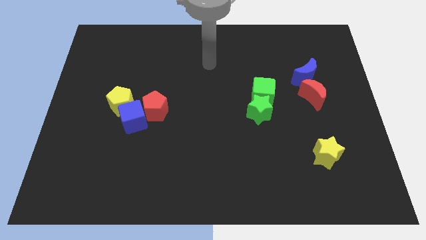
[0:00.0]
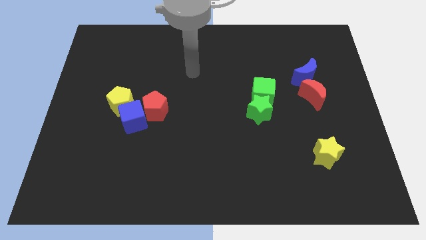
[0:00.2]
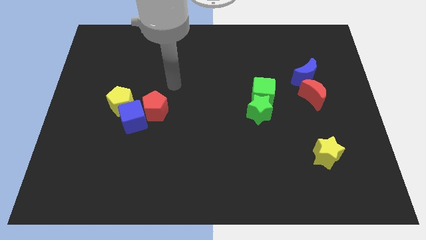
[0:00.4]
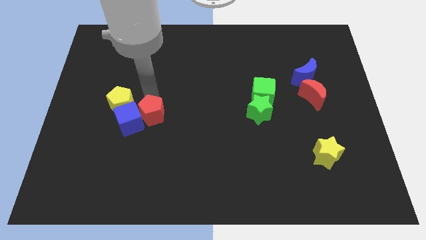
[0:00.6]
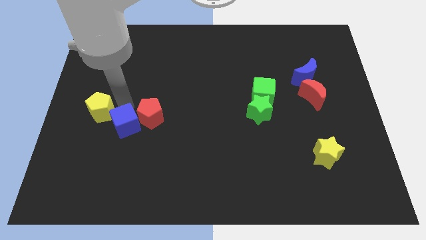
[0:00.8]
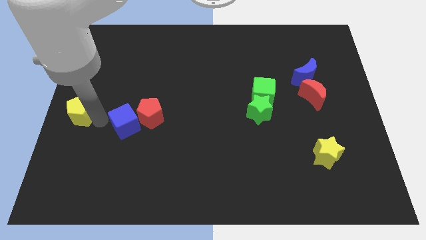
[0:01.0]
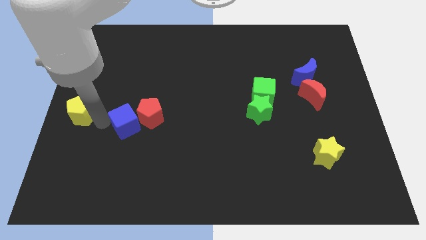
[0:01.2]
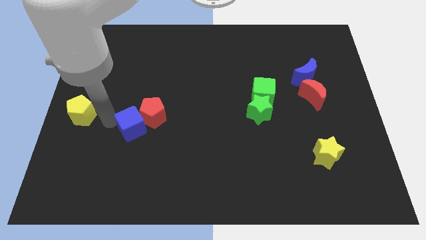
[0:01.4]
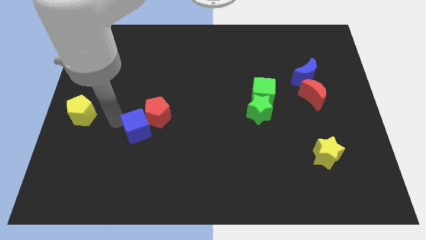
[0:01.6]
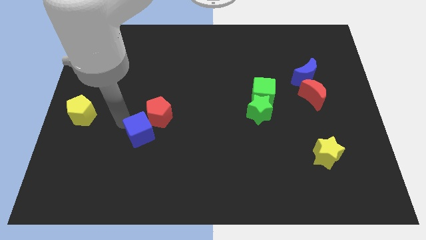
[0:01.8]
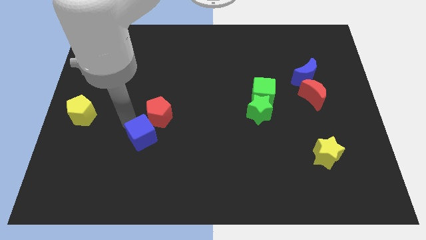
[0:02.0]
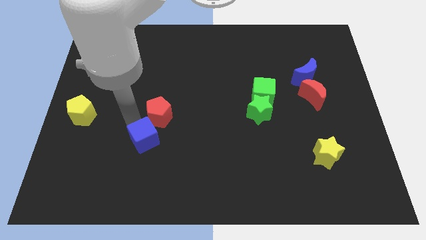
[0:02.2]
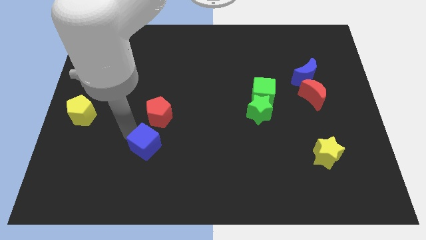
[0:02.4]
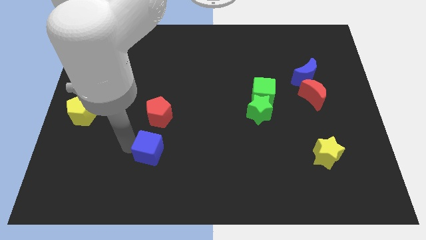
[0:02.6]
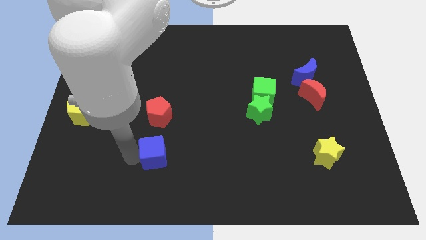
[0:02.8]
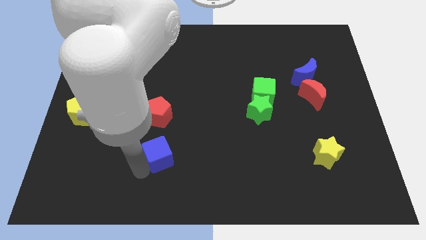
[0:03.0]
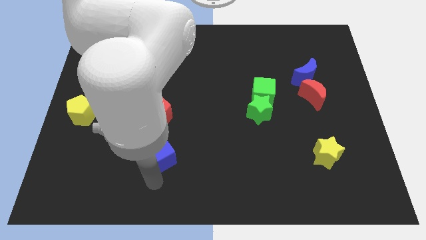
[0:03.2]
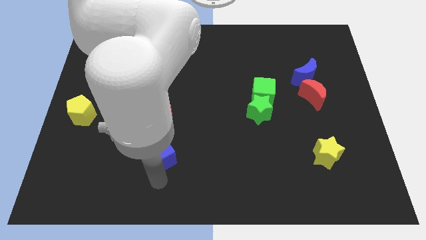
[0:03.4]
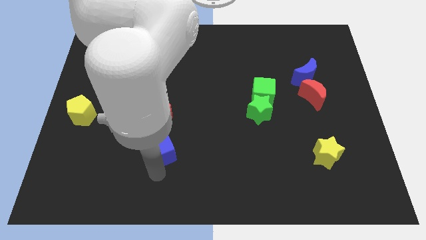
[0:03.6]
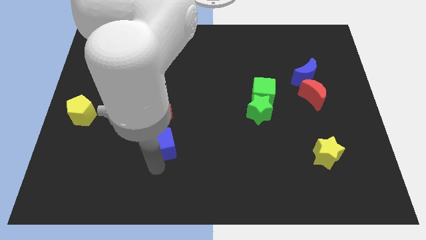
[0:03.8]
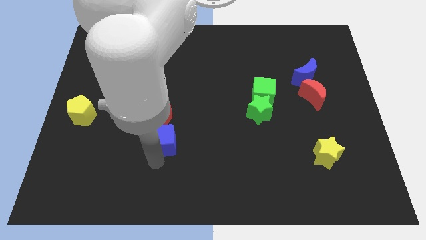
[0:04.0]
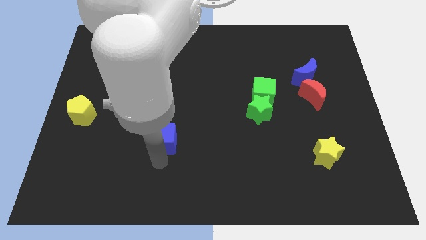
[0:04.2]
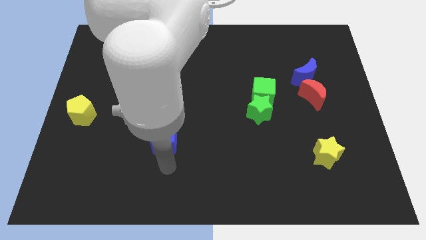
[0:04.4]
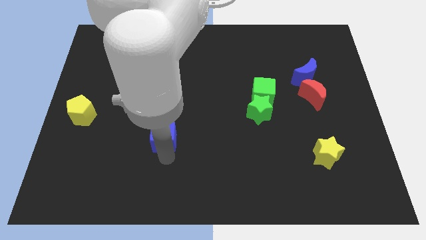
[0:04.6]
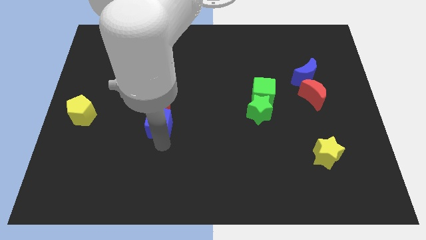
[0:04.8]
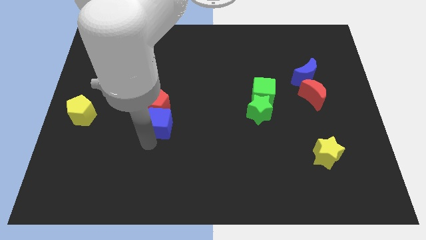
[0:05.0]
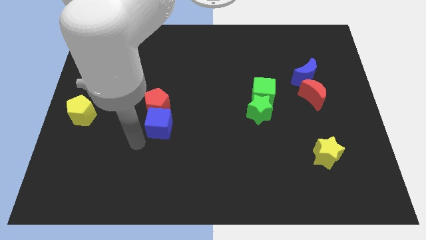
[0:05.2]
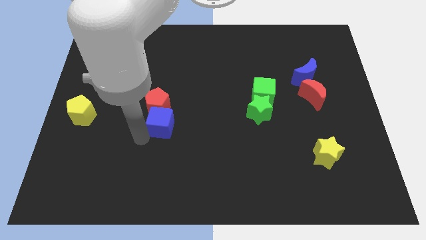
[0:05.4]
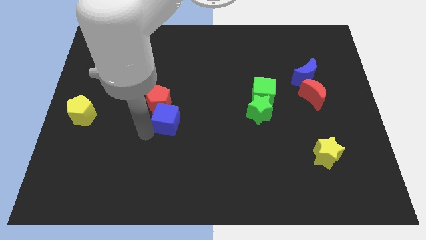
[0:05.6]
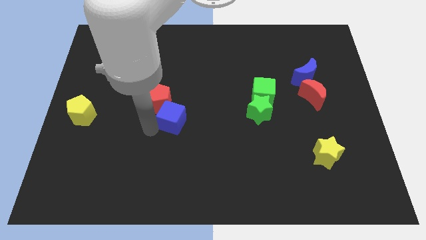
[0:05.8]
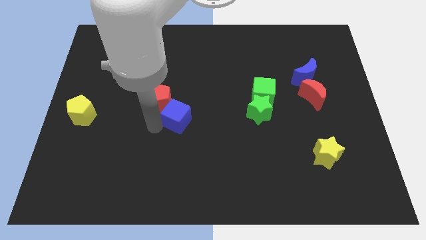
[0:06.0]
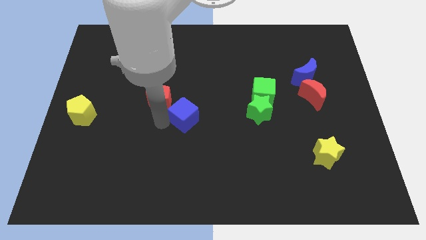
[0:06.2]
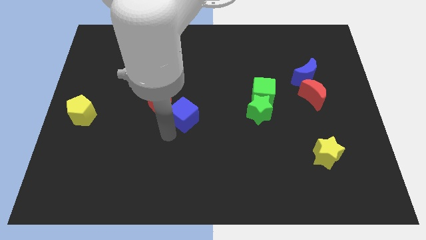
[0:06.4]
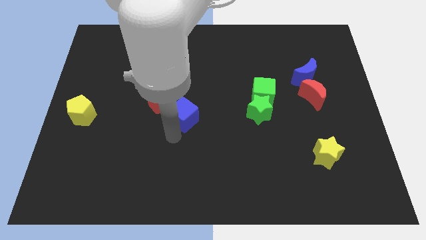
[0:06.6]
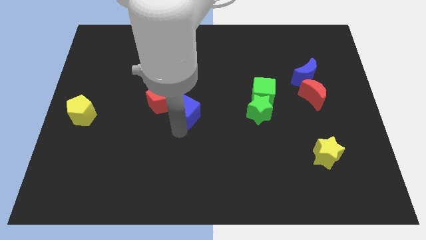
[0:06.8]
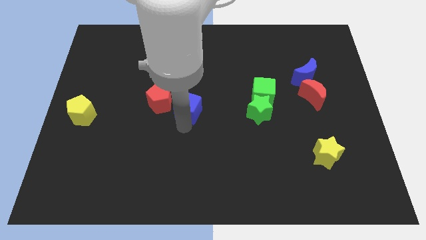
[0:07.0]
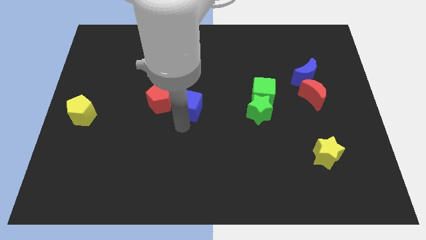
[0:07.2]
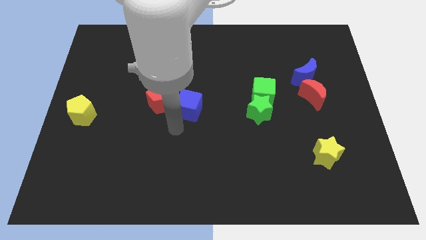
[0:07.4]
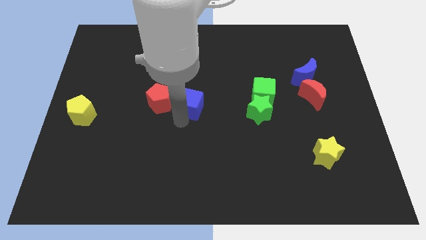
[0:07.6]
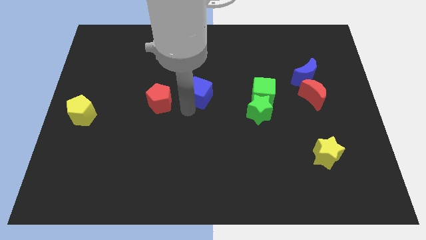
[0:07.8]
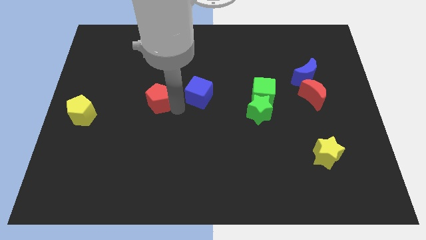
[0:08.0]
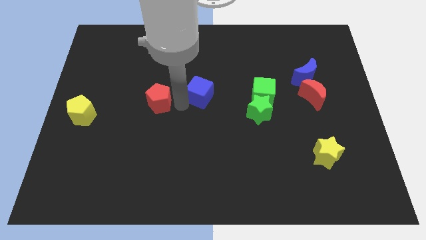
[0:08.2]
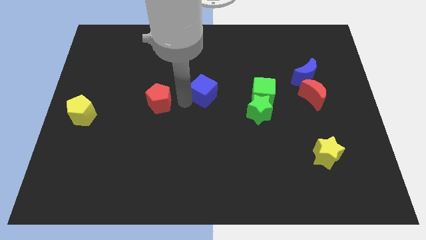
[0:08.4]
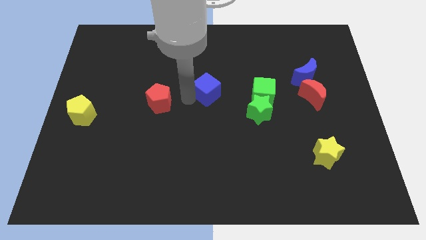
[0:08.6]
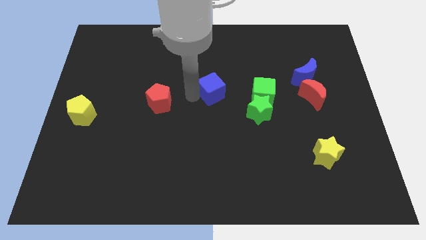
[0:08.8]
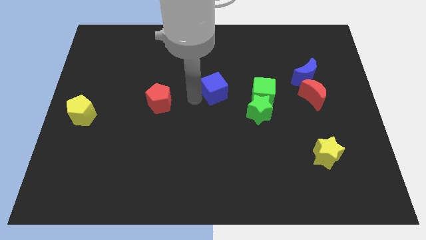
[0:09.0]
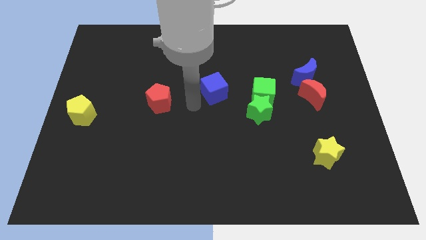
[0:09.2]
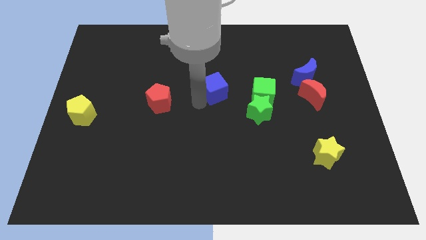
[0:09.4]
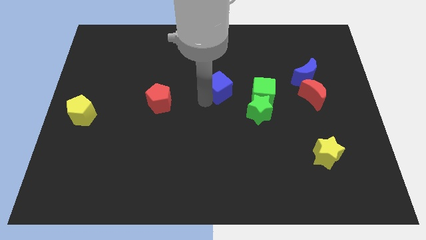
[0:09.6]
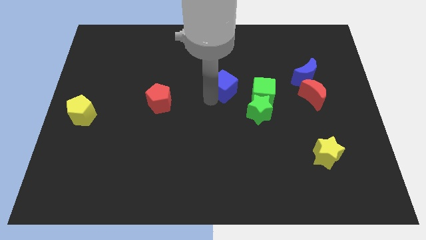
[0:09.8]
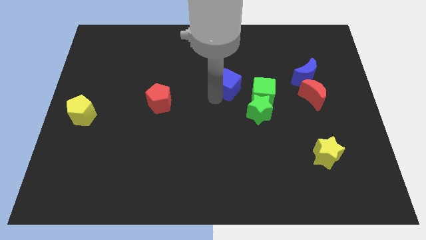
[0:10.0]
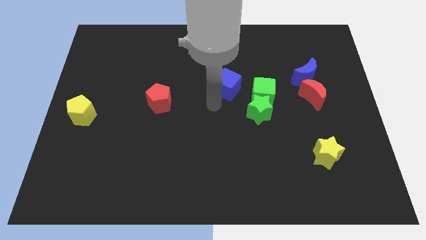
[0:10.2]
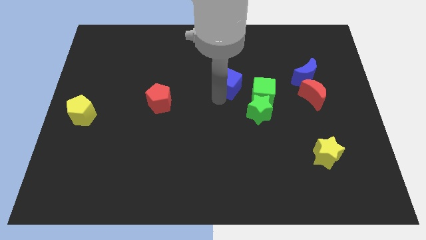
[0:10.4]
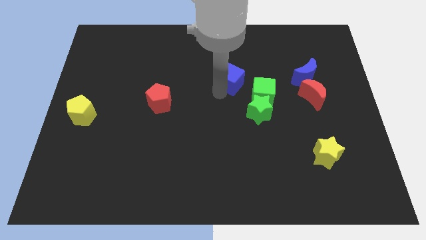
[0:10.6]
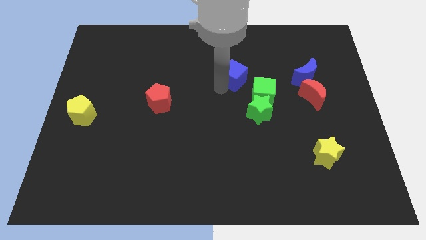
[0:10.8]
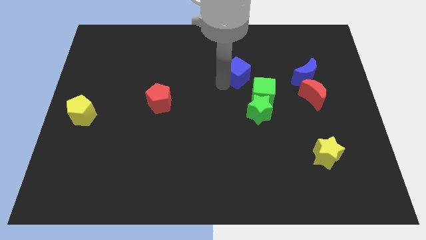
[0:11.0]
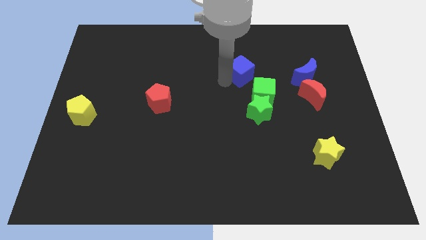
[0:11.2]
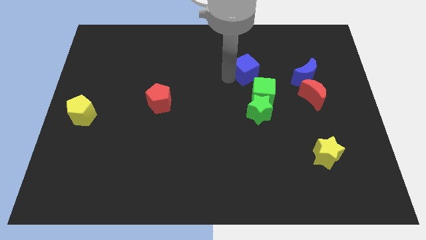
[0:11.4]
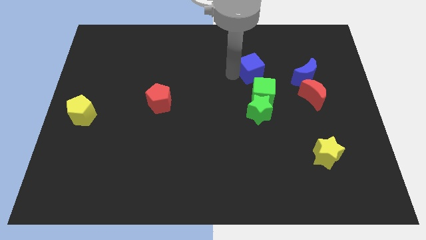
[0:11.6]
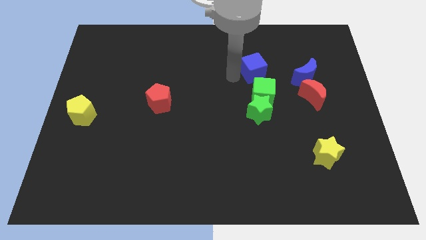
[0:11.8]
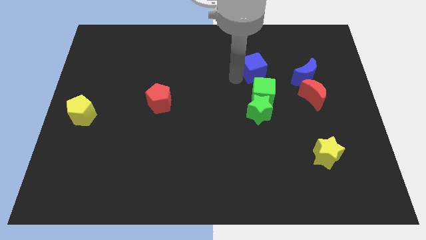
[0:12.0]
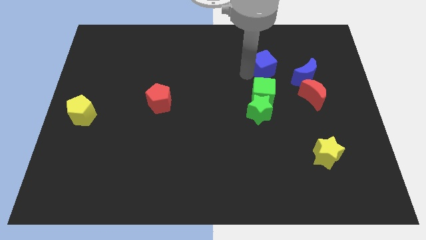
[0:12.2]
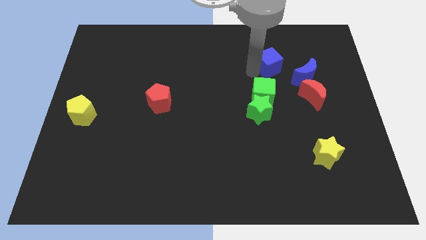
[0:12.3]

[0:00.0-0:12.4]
slide the blue cube to the top left side of the blue moon

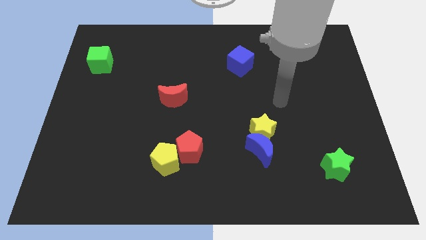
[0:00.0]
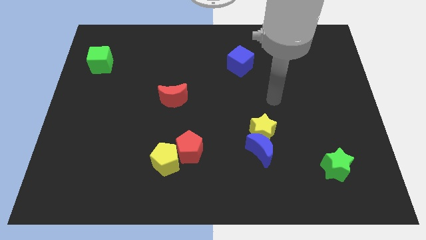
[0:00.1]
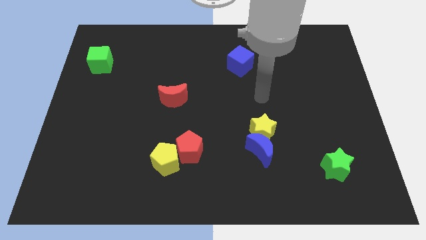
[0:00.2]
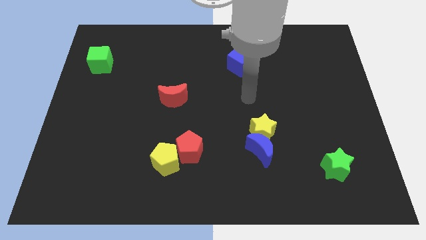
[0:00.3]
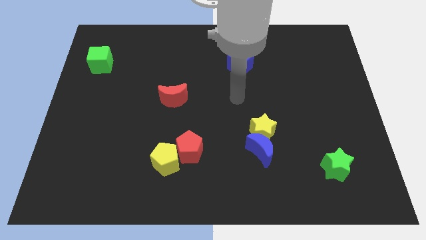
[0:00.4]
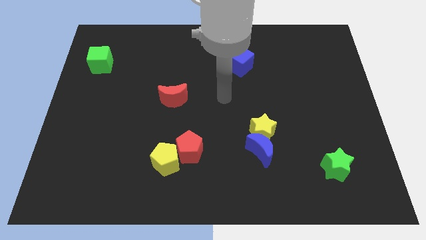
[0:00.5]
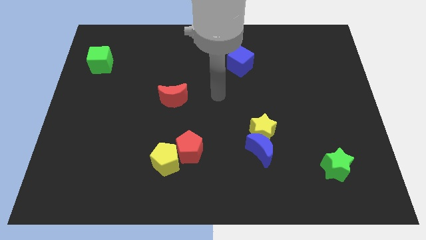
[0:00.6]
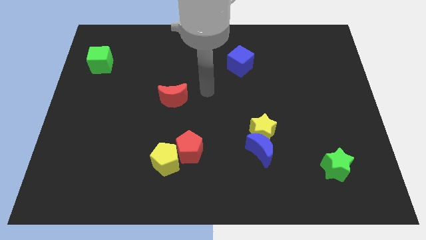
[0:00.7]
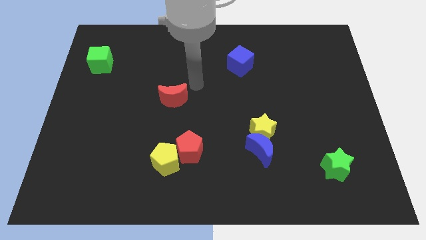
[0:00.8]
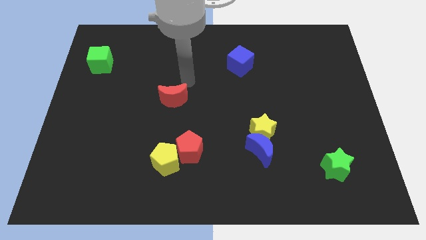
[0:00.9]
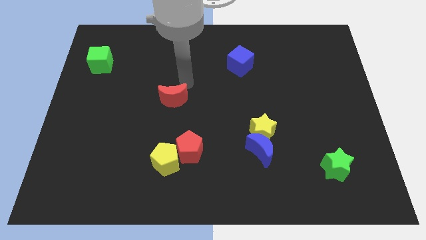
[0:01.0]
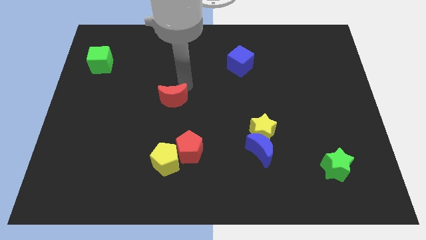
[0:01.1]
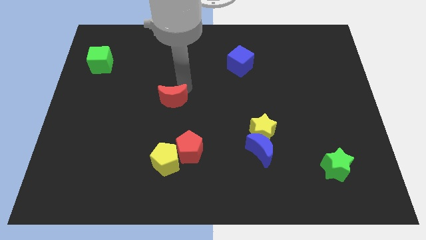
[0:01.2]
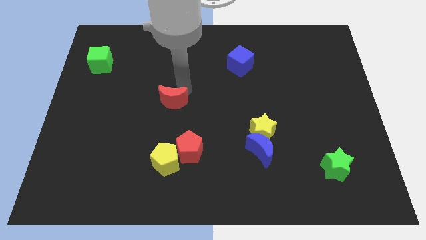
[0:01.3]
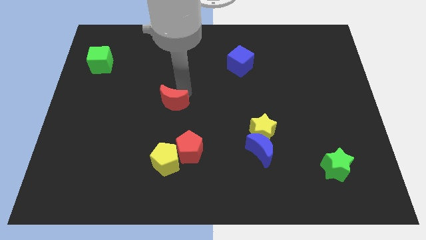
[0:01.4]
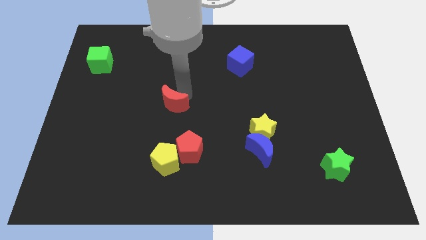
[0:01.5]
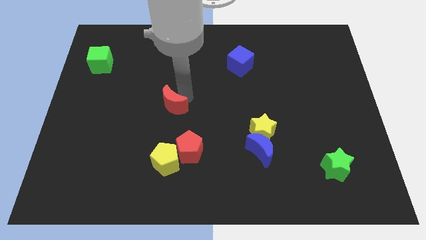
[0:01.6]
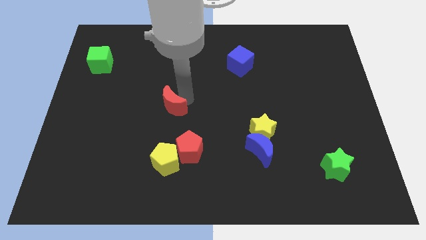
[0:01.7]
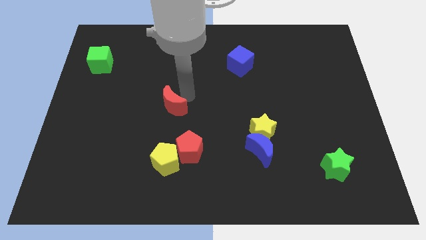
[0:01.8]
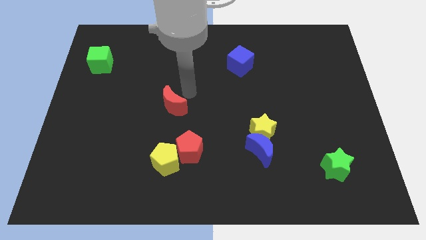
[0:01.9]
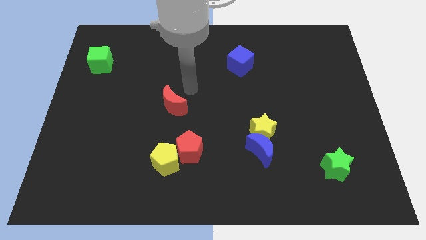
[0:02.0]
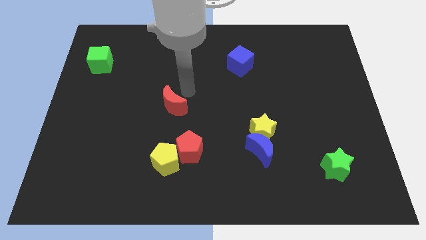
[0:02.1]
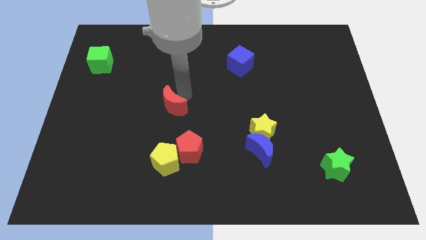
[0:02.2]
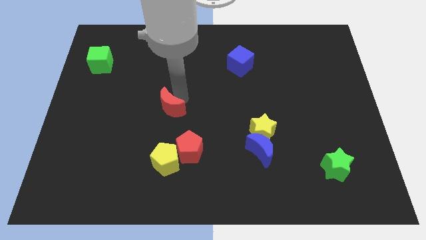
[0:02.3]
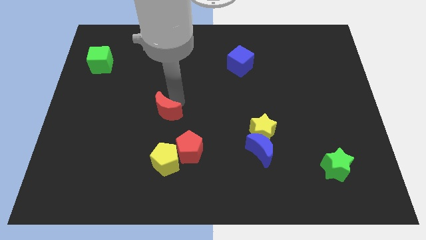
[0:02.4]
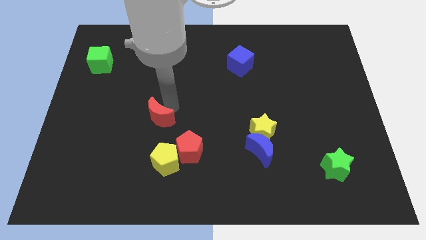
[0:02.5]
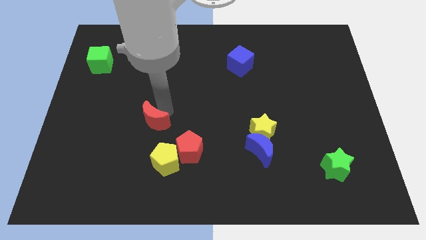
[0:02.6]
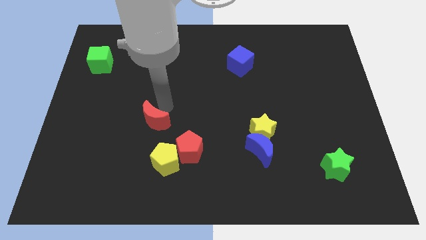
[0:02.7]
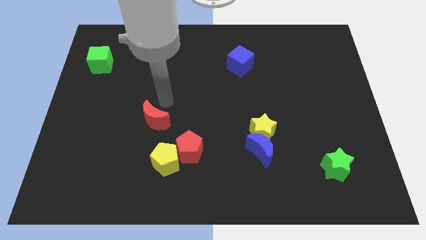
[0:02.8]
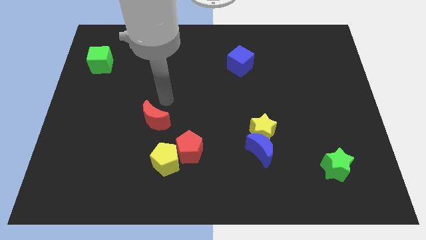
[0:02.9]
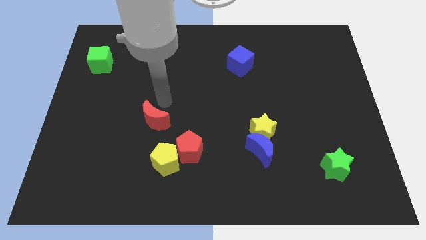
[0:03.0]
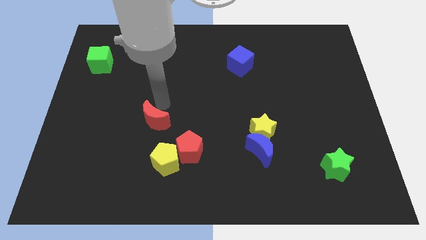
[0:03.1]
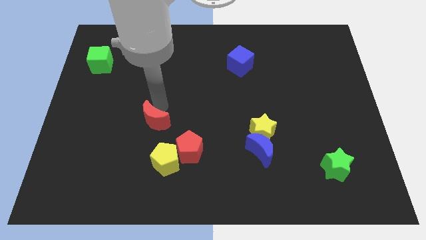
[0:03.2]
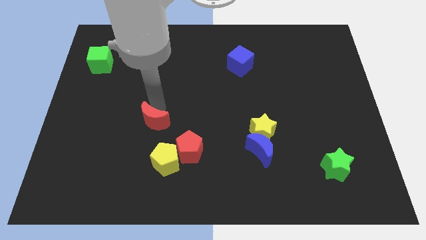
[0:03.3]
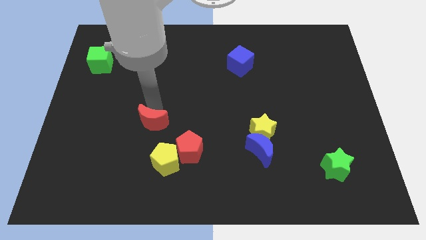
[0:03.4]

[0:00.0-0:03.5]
push the red moon to the top left side of the yellow pentagon
